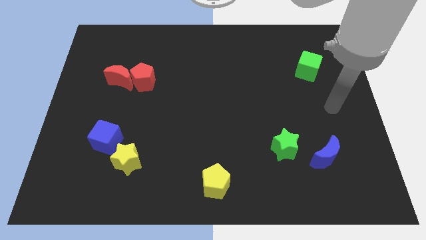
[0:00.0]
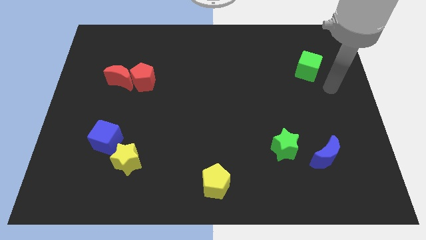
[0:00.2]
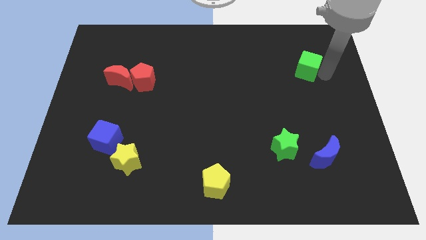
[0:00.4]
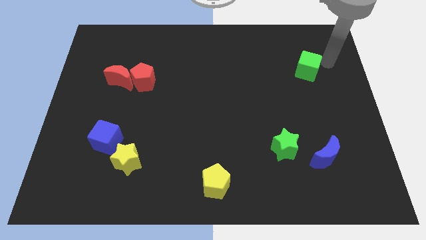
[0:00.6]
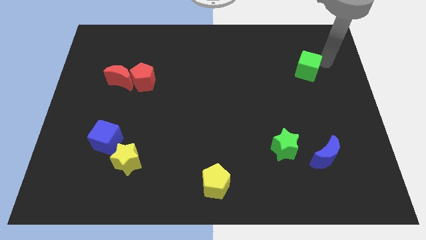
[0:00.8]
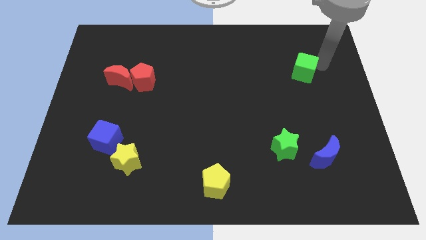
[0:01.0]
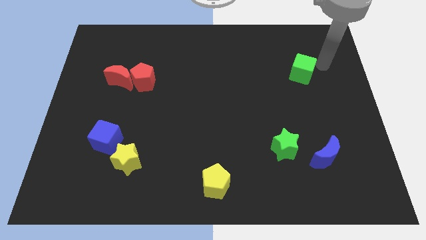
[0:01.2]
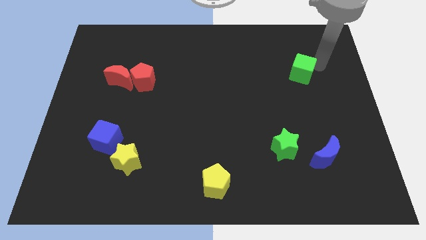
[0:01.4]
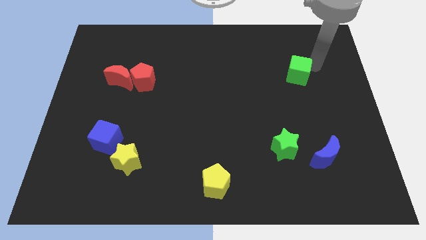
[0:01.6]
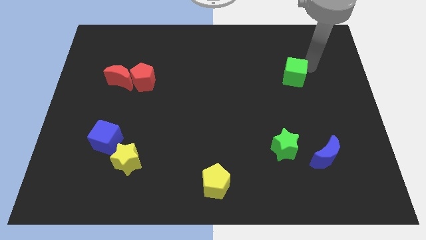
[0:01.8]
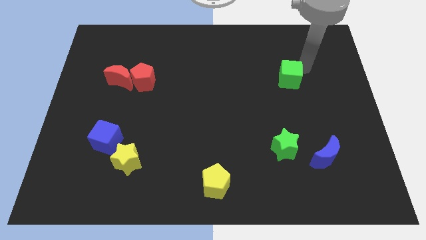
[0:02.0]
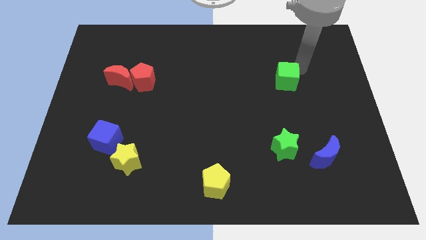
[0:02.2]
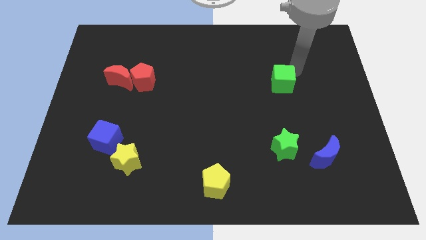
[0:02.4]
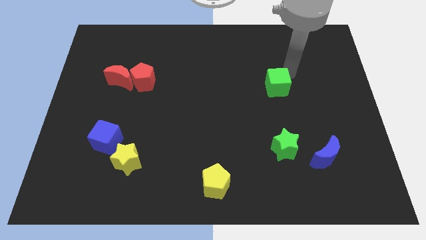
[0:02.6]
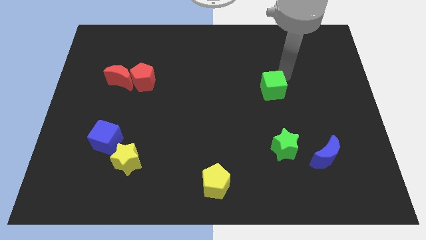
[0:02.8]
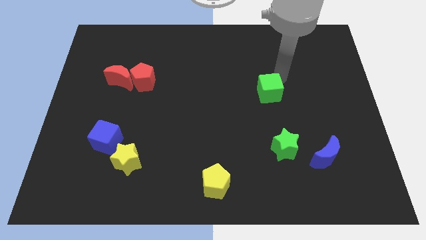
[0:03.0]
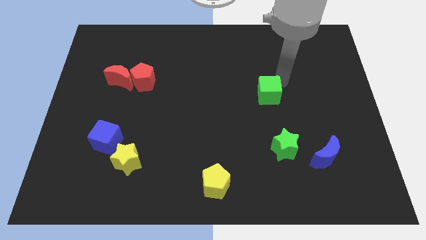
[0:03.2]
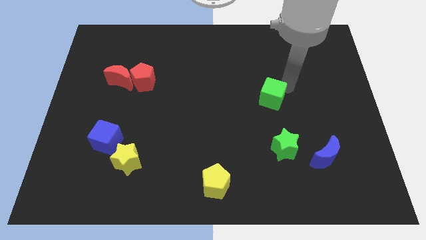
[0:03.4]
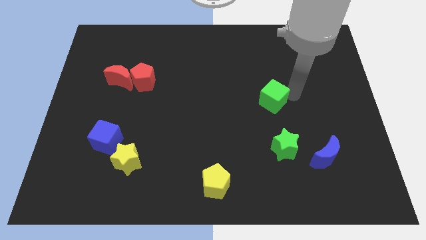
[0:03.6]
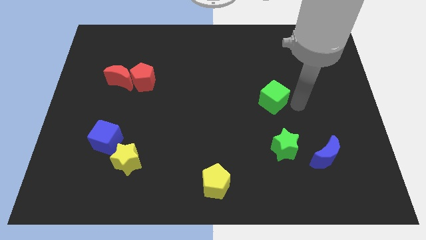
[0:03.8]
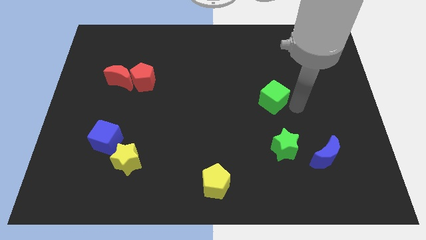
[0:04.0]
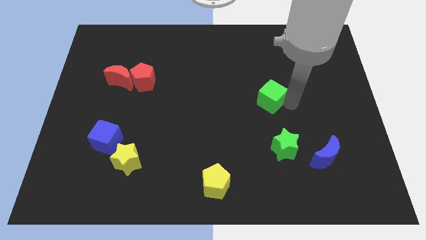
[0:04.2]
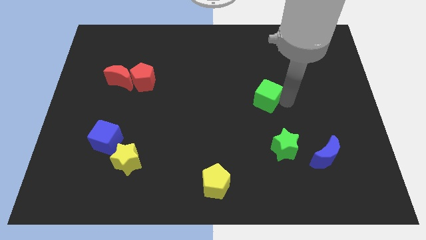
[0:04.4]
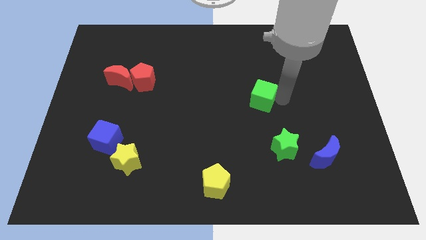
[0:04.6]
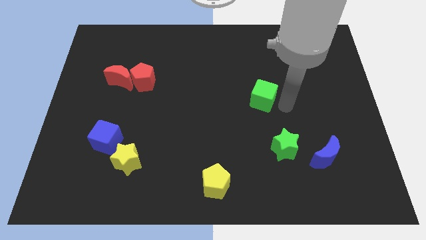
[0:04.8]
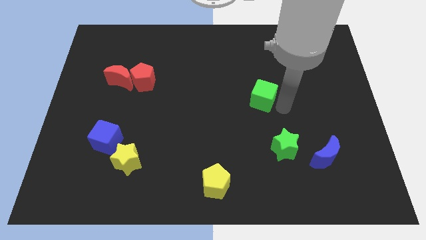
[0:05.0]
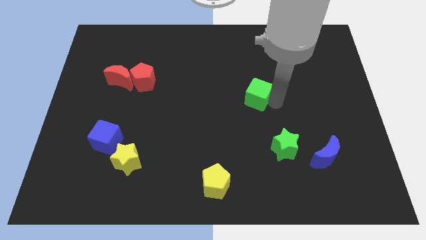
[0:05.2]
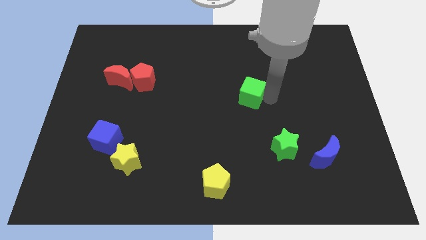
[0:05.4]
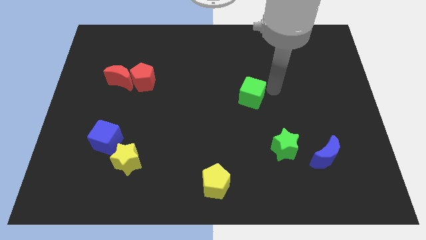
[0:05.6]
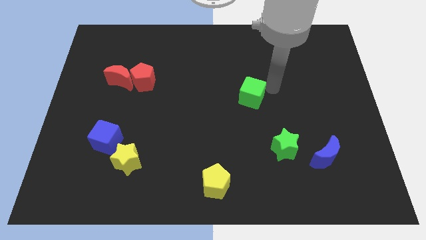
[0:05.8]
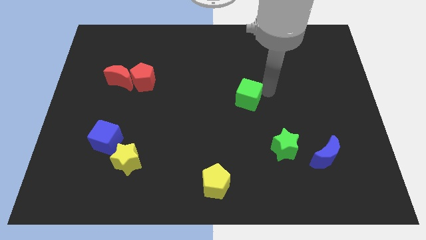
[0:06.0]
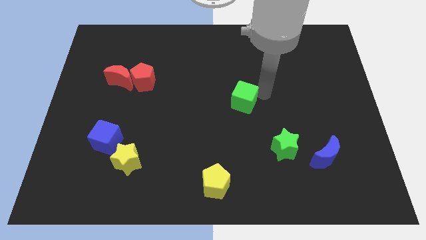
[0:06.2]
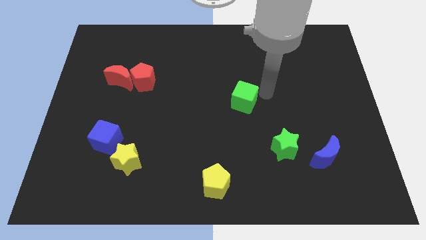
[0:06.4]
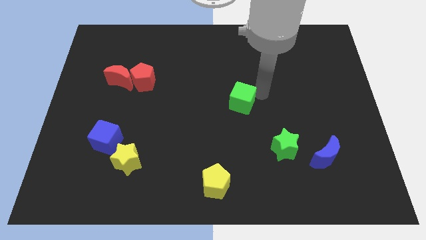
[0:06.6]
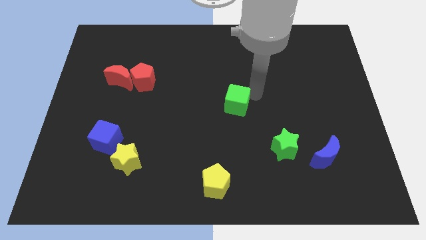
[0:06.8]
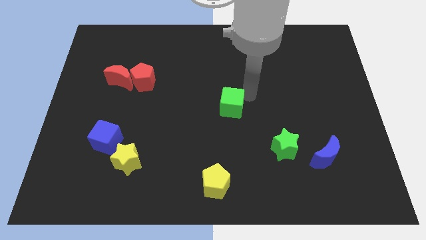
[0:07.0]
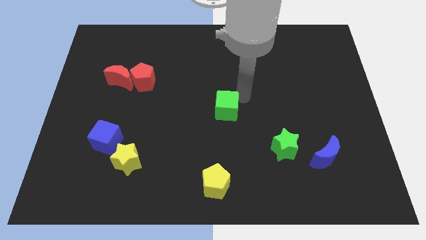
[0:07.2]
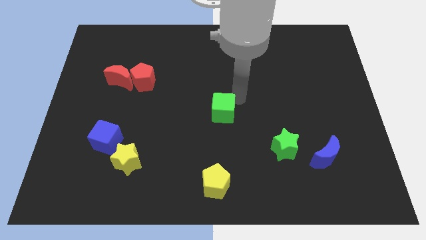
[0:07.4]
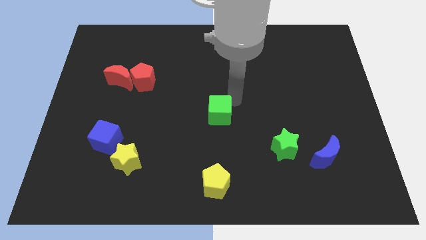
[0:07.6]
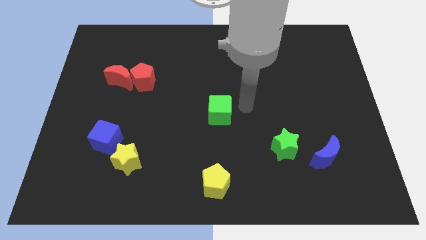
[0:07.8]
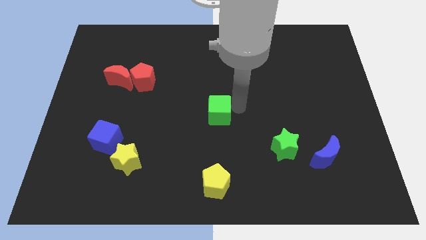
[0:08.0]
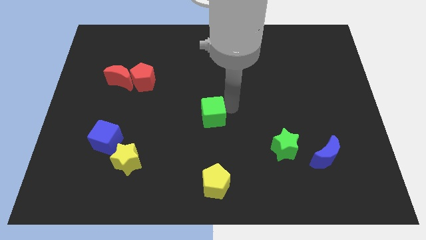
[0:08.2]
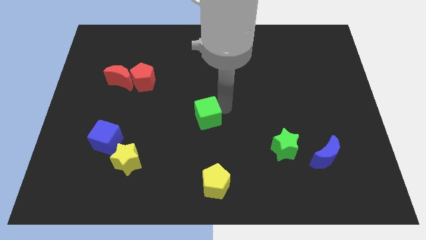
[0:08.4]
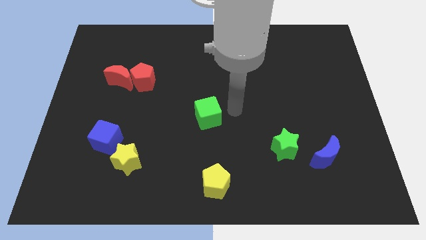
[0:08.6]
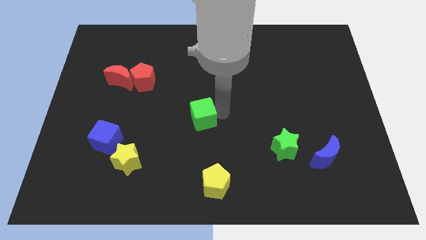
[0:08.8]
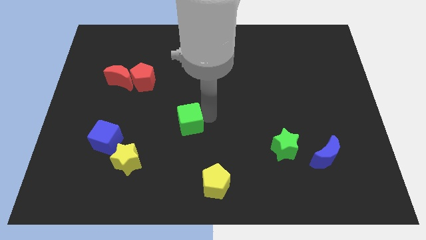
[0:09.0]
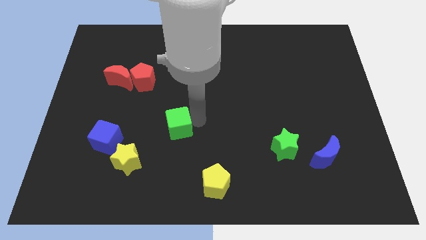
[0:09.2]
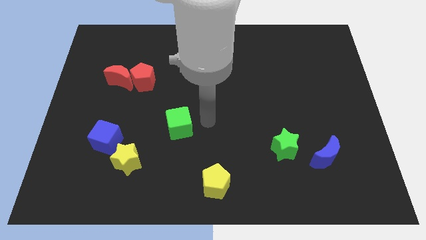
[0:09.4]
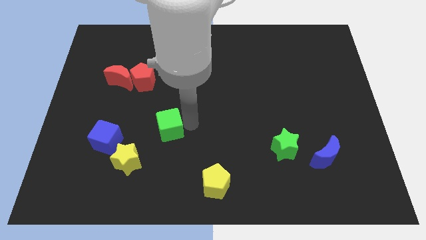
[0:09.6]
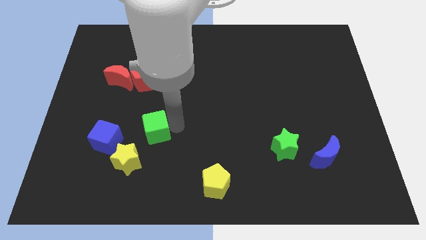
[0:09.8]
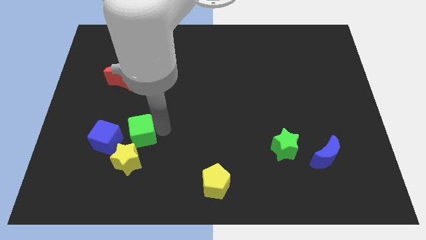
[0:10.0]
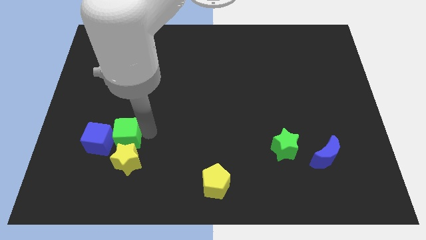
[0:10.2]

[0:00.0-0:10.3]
move the green cube towards the blue cube

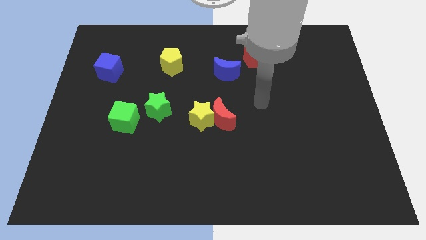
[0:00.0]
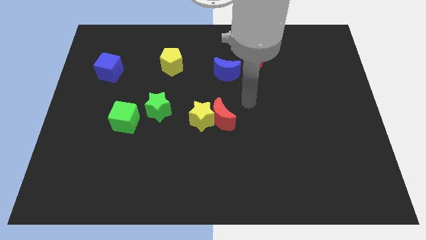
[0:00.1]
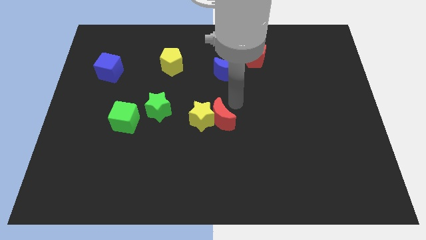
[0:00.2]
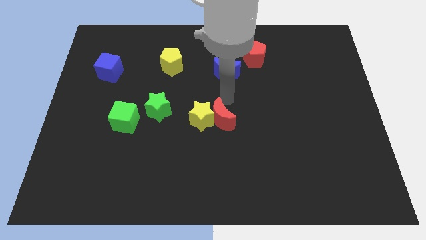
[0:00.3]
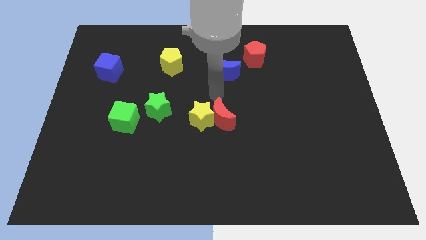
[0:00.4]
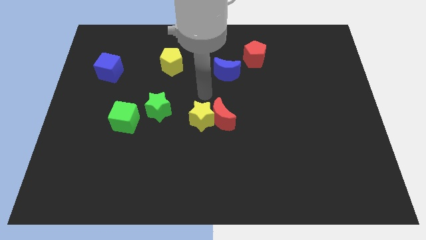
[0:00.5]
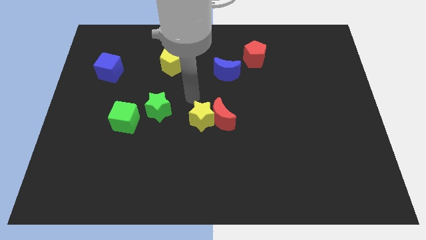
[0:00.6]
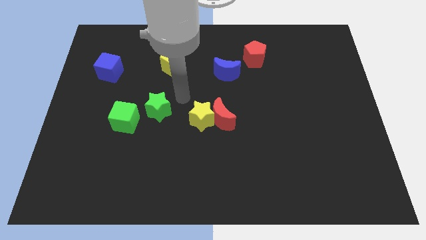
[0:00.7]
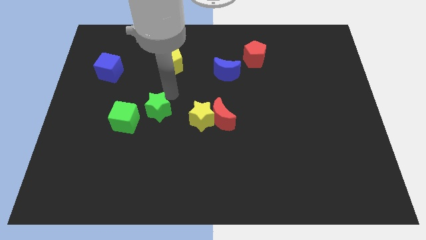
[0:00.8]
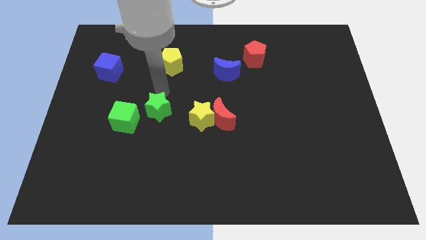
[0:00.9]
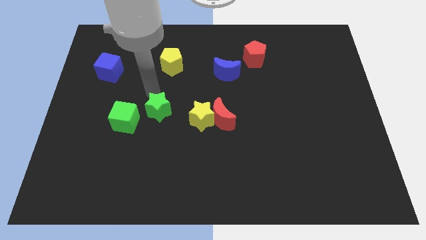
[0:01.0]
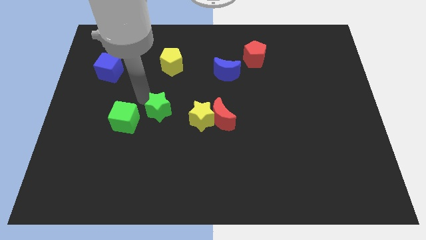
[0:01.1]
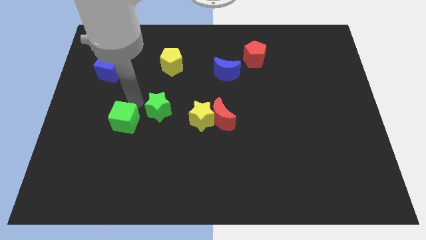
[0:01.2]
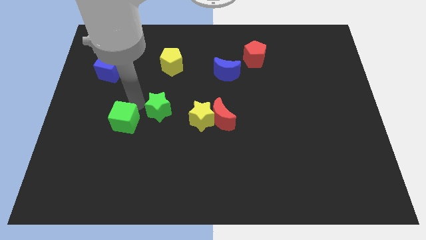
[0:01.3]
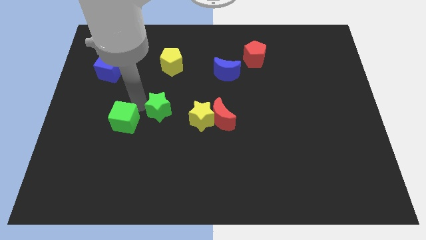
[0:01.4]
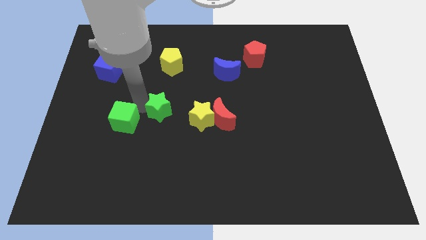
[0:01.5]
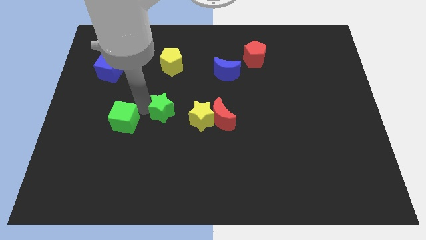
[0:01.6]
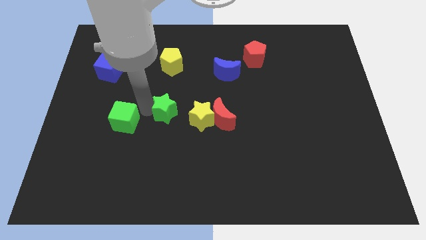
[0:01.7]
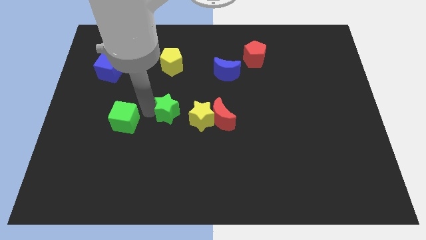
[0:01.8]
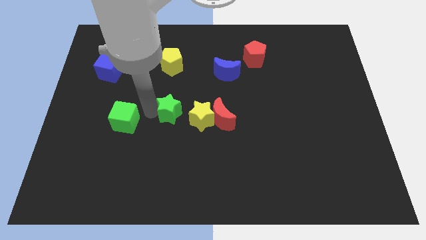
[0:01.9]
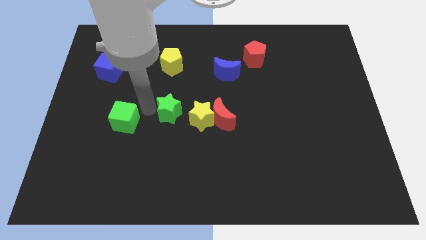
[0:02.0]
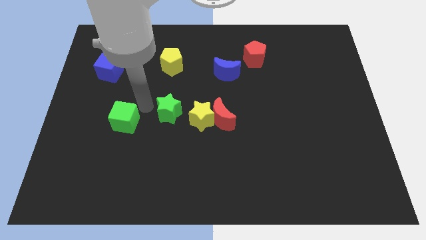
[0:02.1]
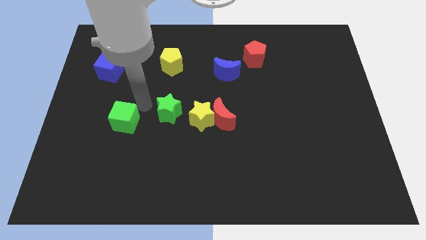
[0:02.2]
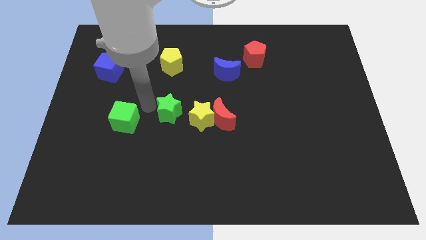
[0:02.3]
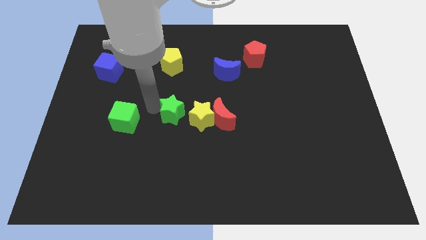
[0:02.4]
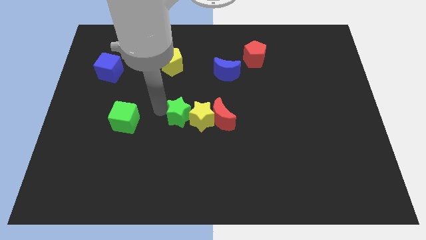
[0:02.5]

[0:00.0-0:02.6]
put the green star close to the yellow star
